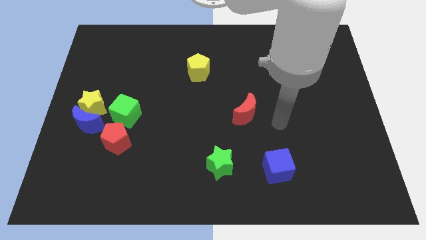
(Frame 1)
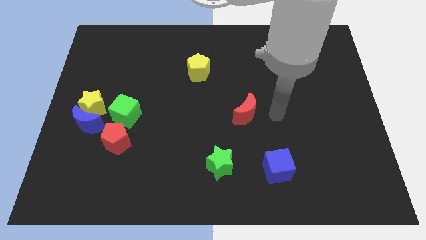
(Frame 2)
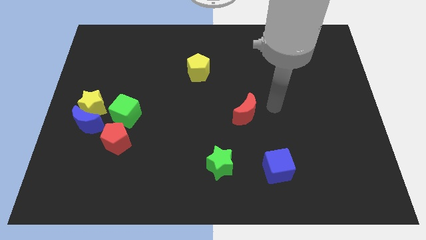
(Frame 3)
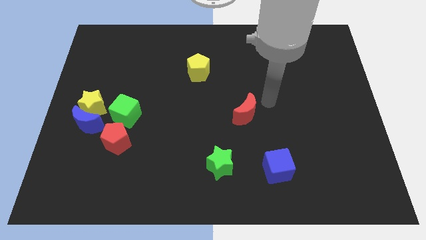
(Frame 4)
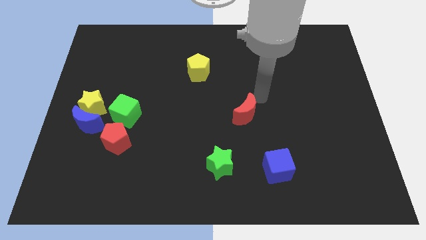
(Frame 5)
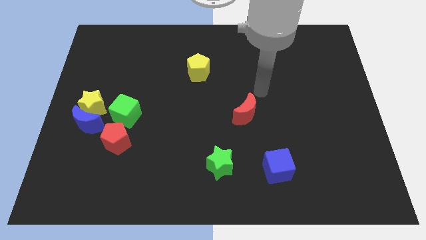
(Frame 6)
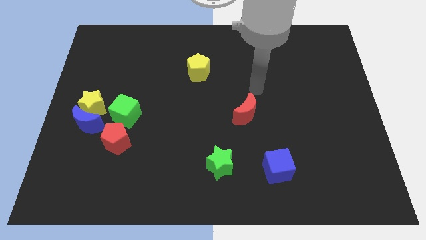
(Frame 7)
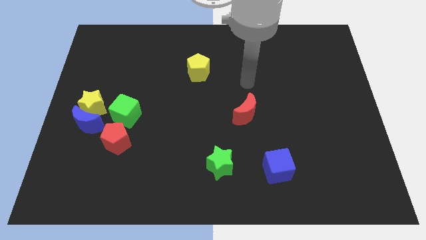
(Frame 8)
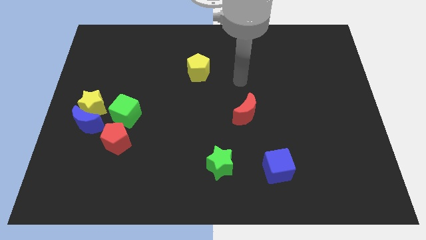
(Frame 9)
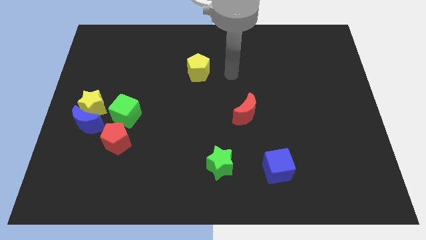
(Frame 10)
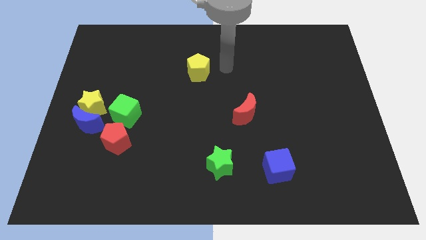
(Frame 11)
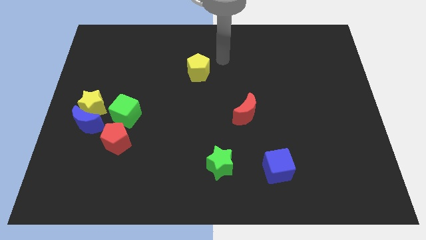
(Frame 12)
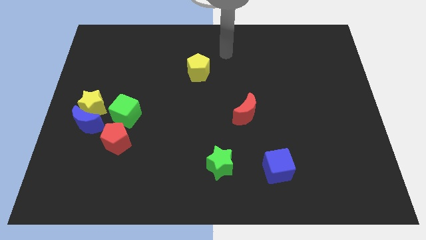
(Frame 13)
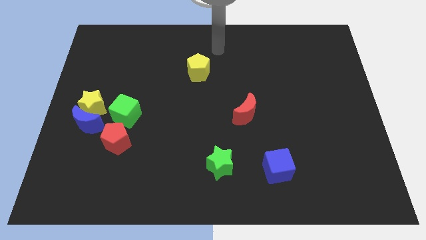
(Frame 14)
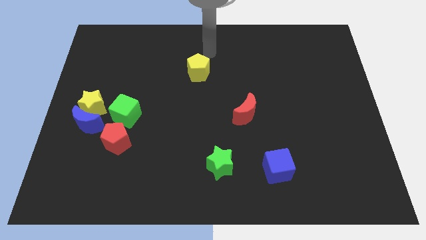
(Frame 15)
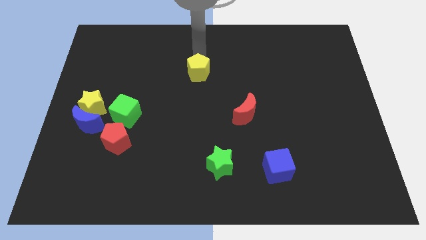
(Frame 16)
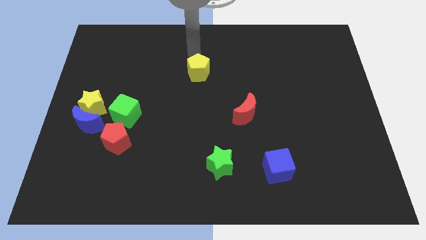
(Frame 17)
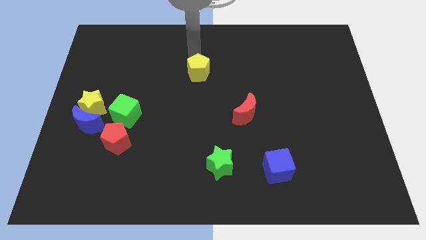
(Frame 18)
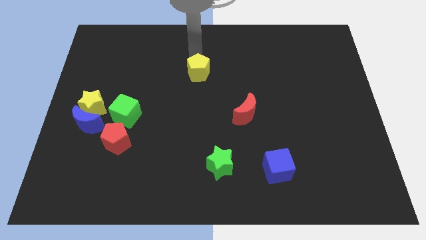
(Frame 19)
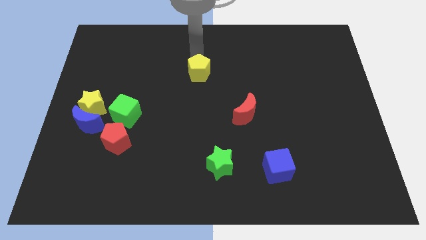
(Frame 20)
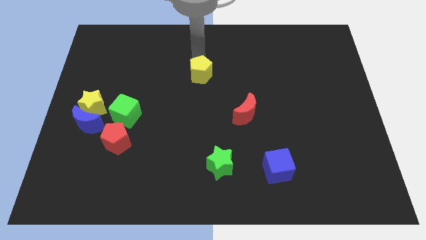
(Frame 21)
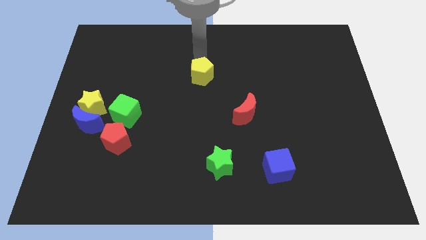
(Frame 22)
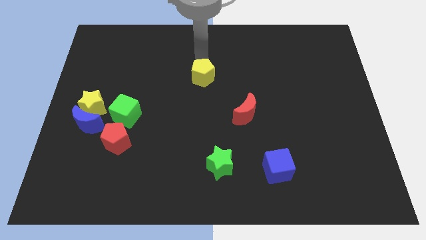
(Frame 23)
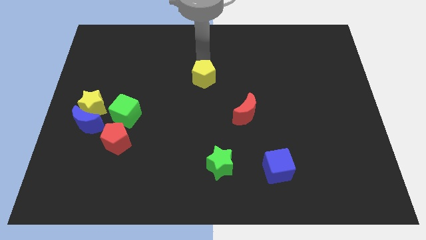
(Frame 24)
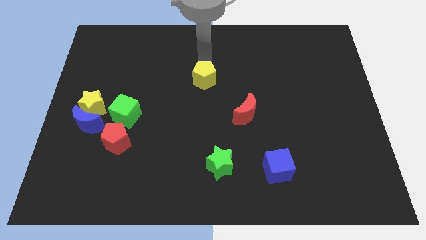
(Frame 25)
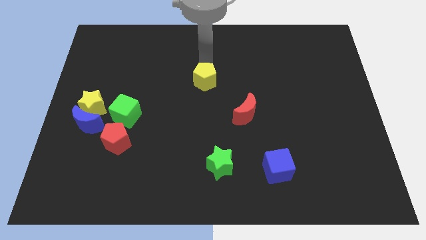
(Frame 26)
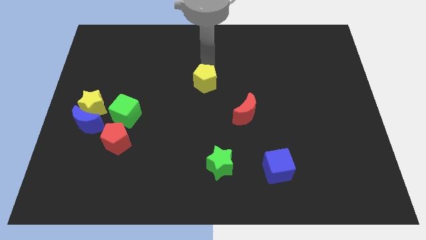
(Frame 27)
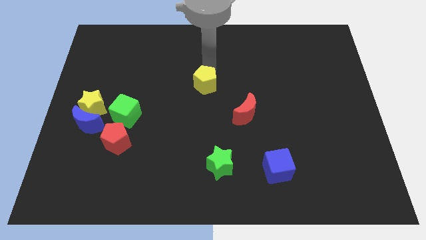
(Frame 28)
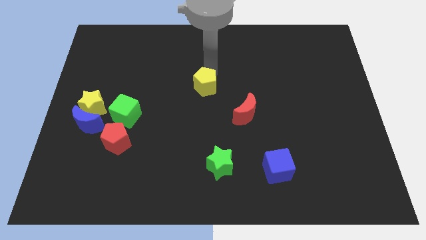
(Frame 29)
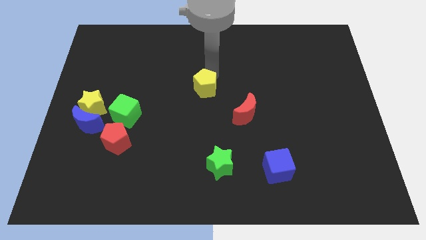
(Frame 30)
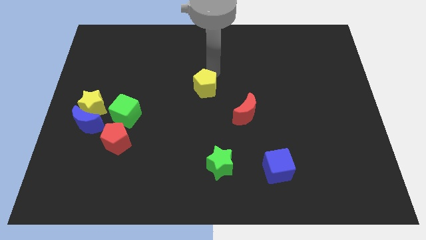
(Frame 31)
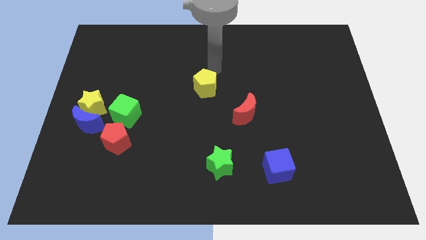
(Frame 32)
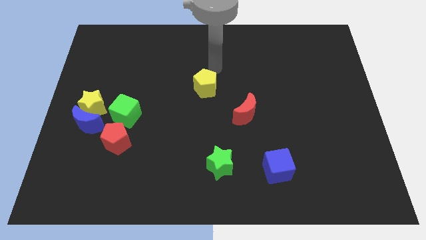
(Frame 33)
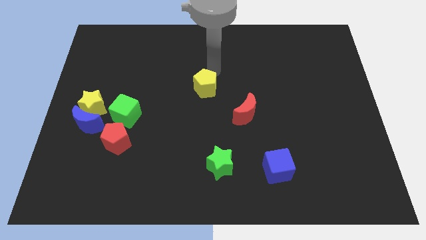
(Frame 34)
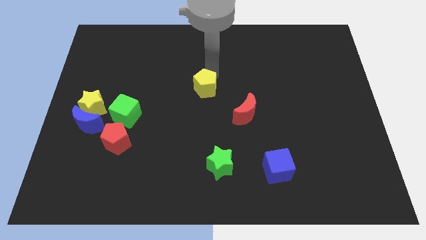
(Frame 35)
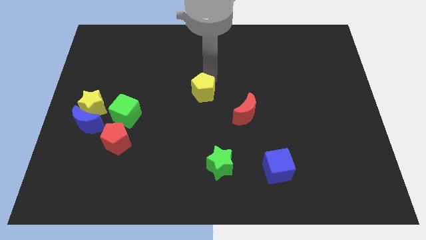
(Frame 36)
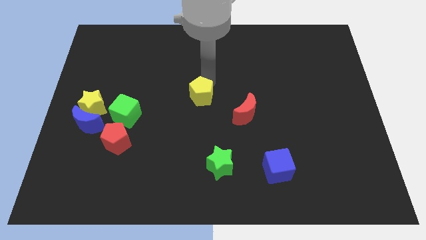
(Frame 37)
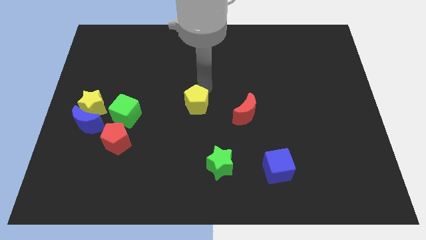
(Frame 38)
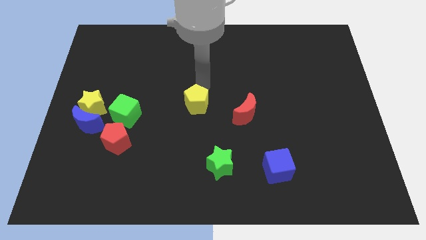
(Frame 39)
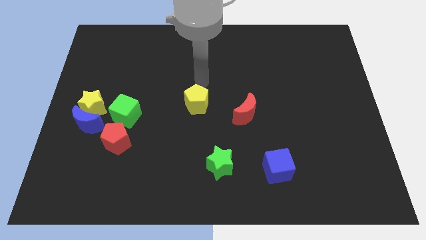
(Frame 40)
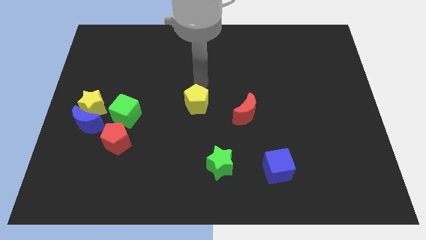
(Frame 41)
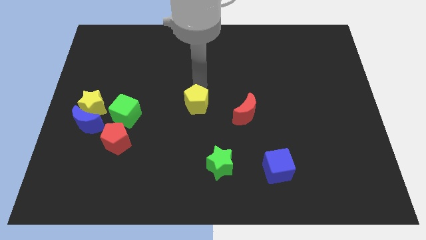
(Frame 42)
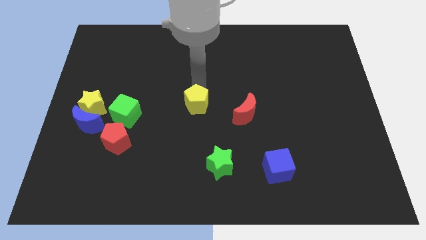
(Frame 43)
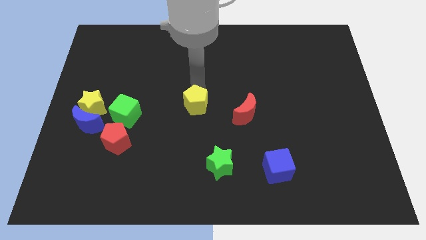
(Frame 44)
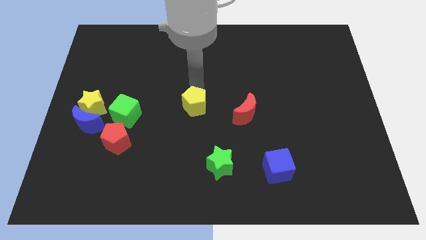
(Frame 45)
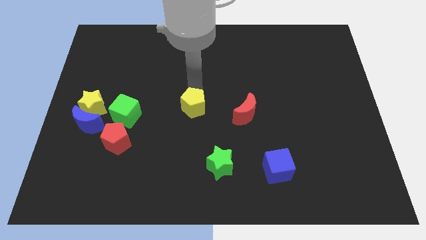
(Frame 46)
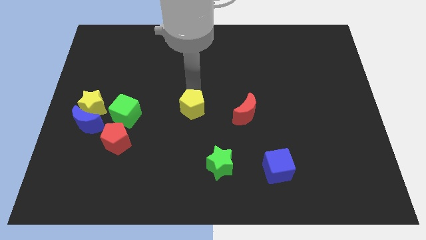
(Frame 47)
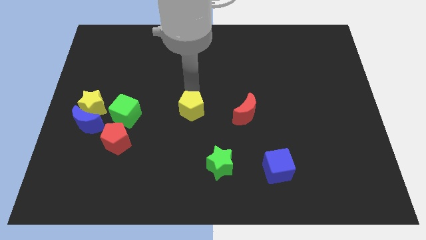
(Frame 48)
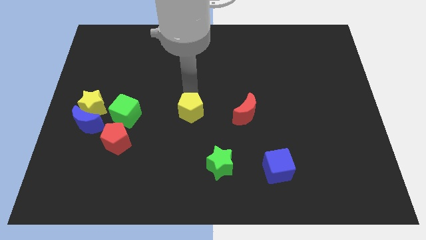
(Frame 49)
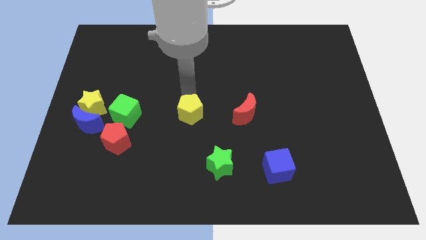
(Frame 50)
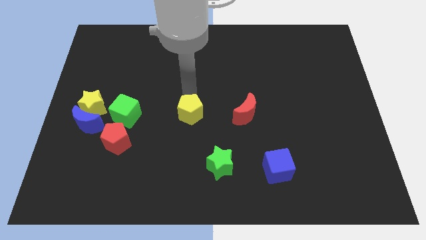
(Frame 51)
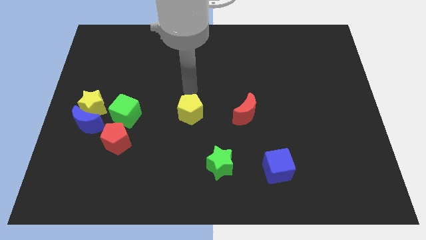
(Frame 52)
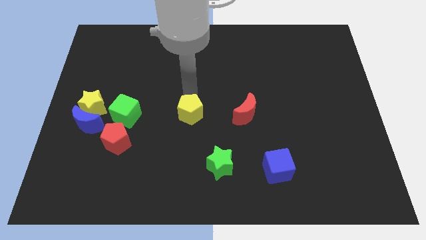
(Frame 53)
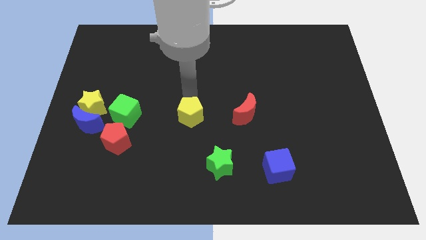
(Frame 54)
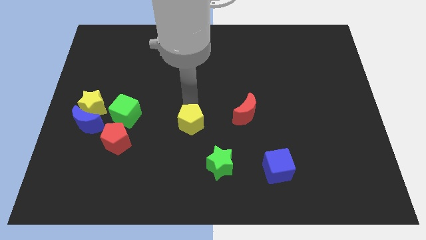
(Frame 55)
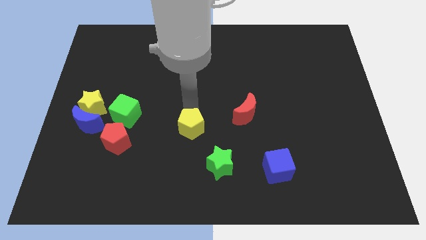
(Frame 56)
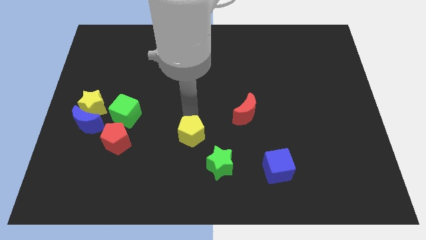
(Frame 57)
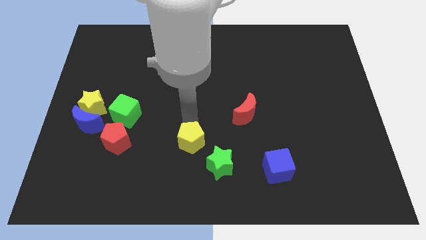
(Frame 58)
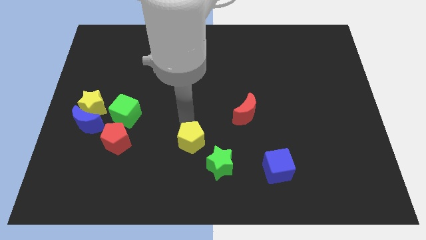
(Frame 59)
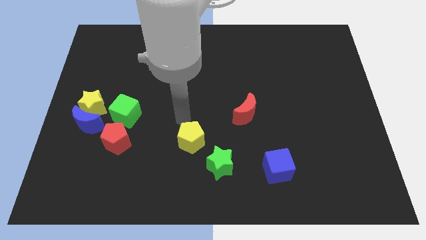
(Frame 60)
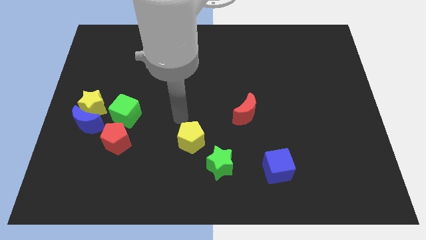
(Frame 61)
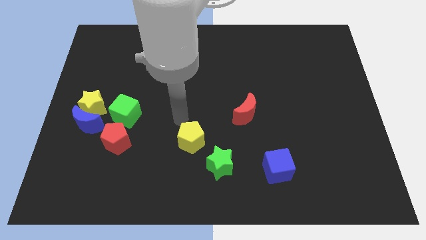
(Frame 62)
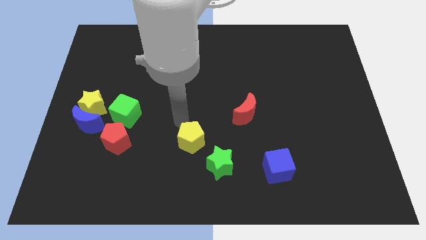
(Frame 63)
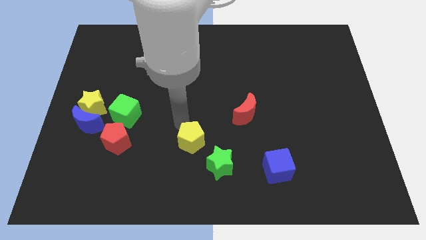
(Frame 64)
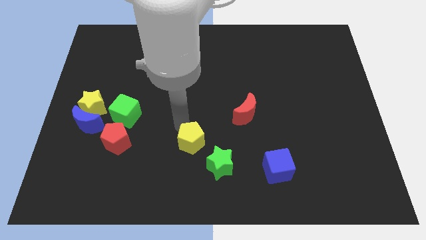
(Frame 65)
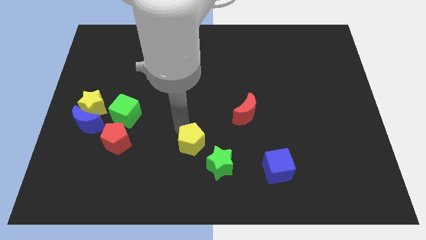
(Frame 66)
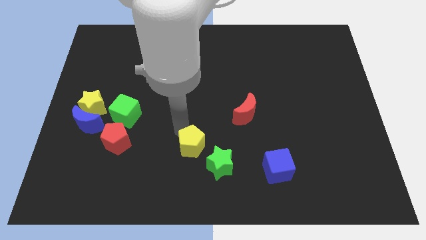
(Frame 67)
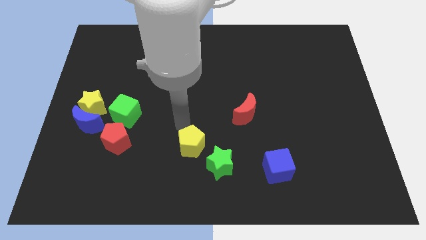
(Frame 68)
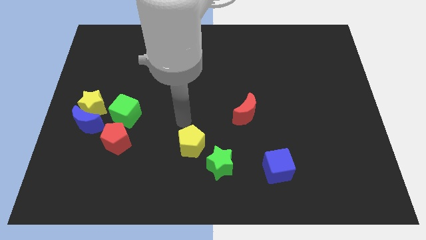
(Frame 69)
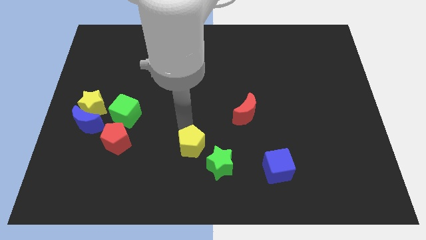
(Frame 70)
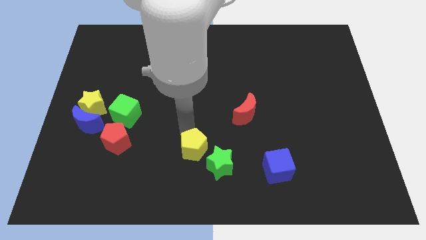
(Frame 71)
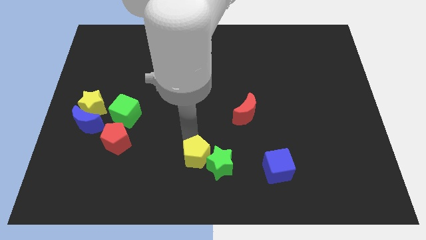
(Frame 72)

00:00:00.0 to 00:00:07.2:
push the yellow pentagon to the bottom

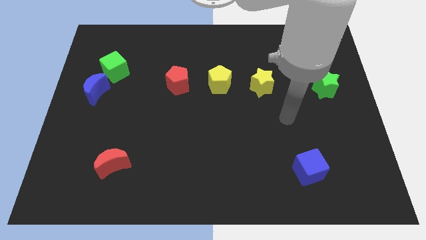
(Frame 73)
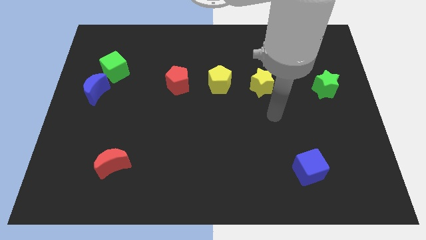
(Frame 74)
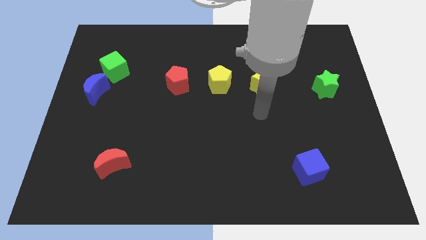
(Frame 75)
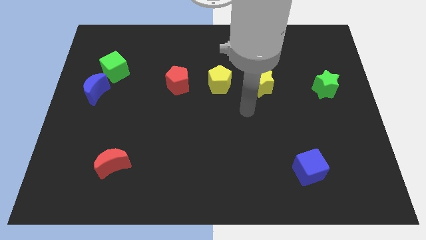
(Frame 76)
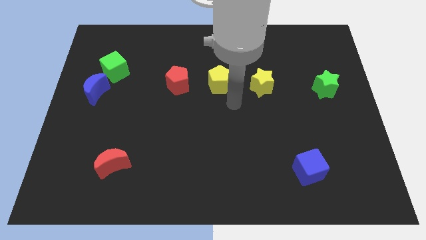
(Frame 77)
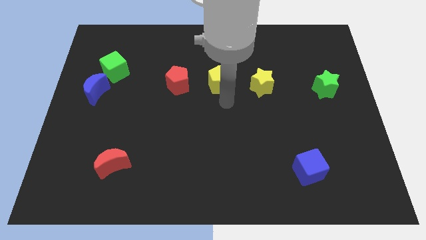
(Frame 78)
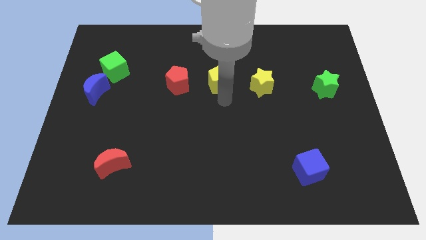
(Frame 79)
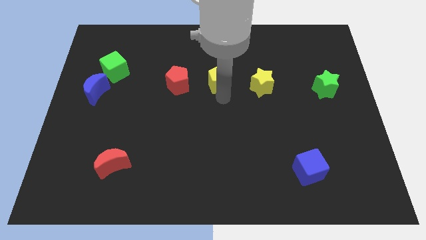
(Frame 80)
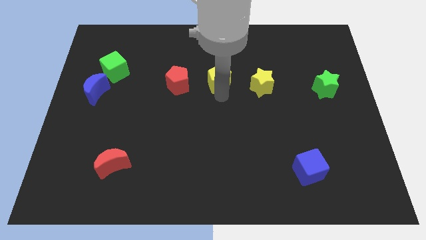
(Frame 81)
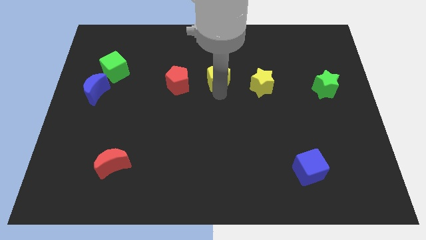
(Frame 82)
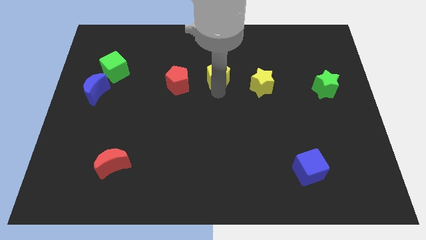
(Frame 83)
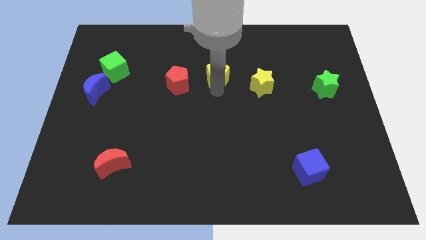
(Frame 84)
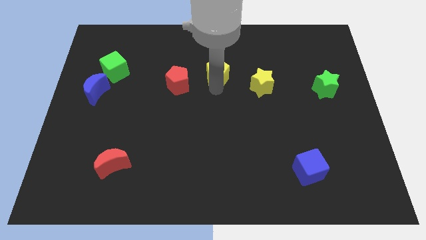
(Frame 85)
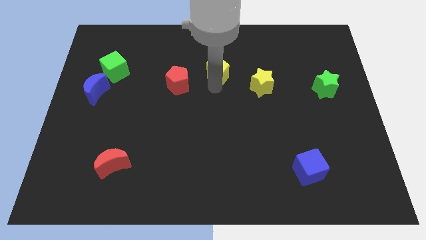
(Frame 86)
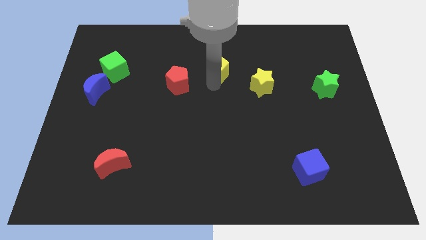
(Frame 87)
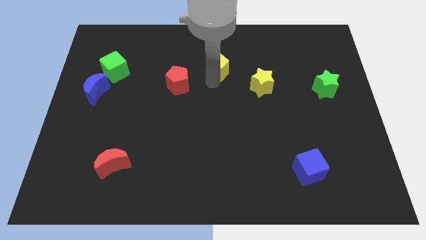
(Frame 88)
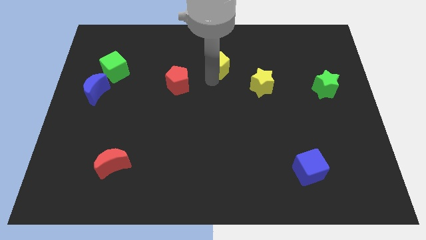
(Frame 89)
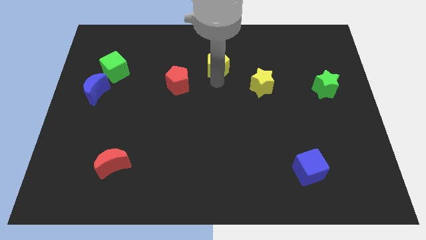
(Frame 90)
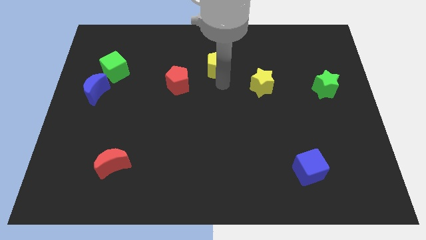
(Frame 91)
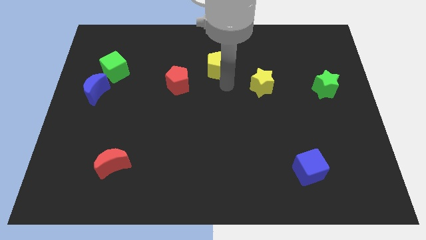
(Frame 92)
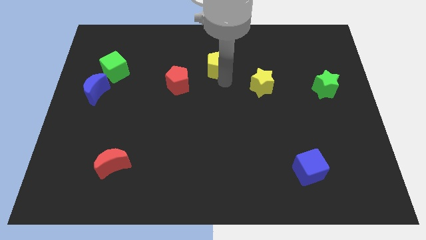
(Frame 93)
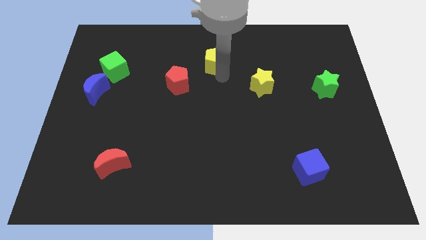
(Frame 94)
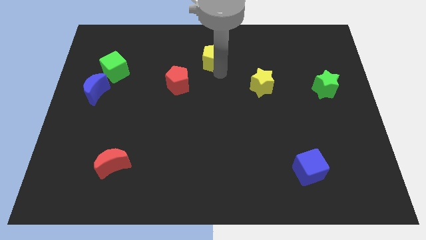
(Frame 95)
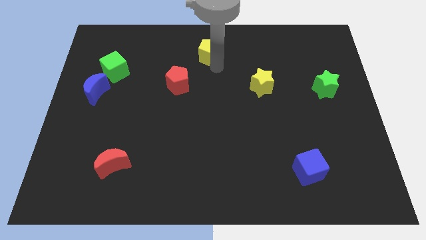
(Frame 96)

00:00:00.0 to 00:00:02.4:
push the yellow pentagon to the top side
